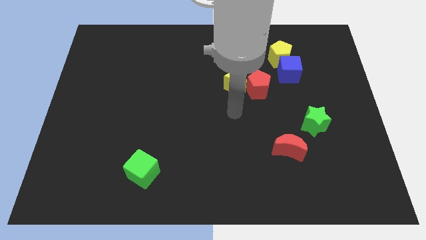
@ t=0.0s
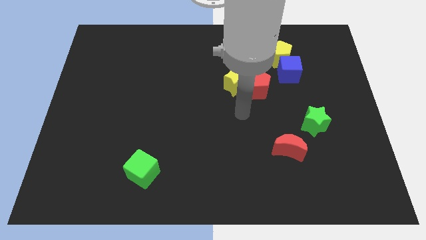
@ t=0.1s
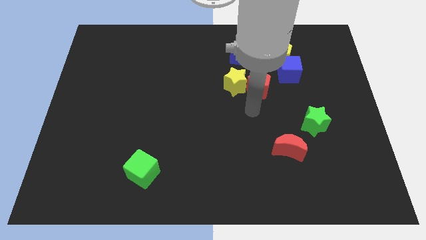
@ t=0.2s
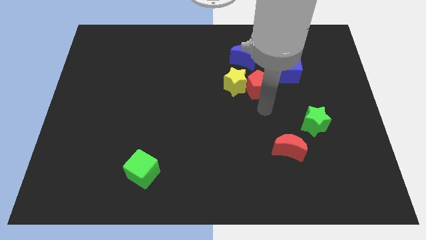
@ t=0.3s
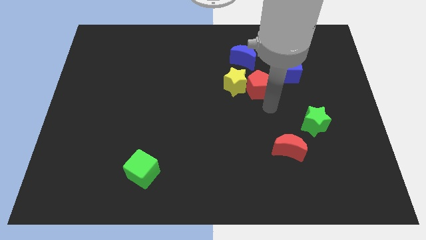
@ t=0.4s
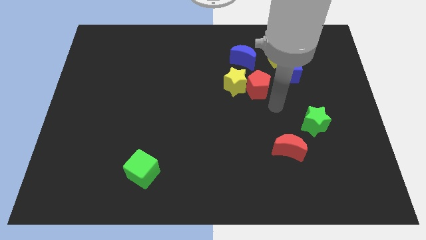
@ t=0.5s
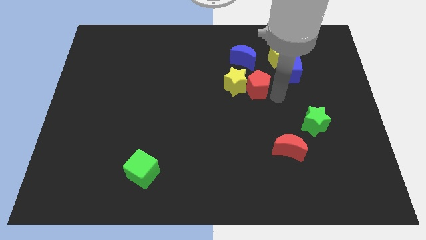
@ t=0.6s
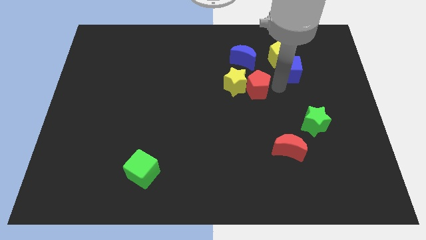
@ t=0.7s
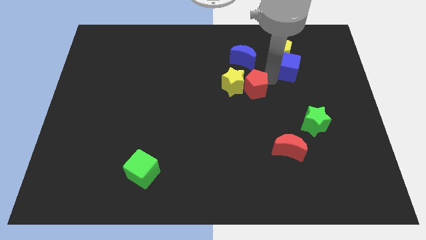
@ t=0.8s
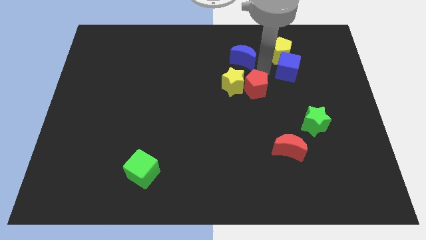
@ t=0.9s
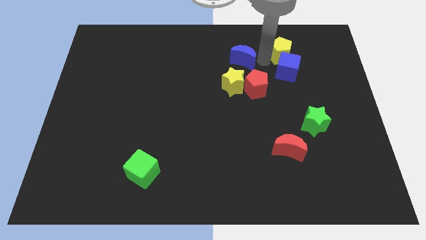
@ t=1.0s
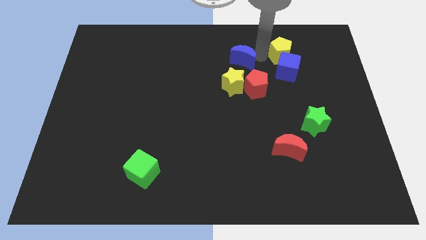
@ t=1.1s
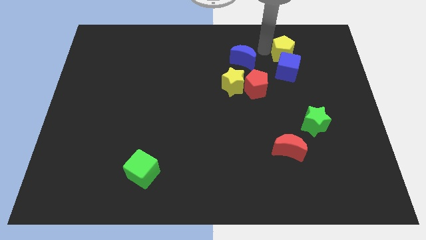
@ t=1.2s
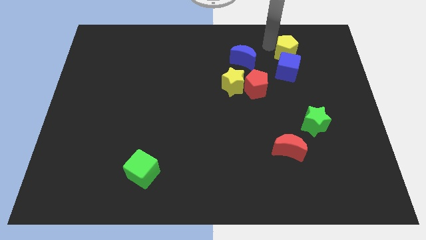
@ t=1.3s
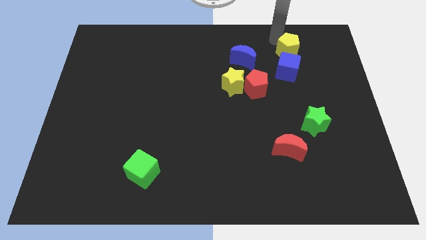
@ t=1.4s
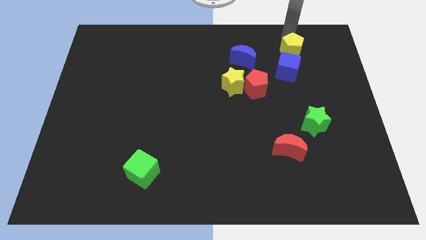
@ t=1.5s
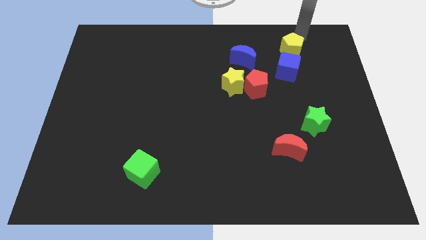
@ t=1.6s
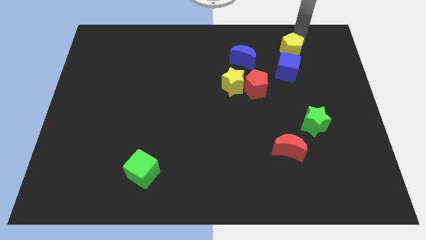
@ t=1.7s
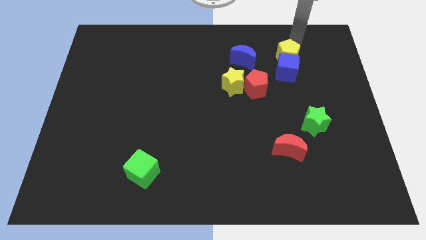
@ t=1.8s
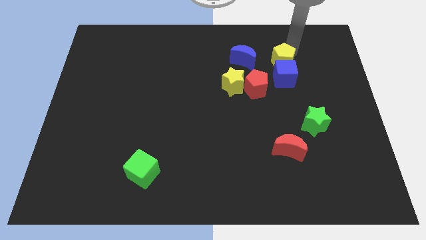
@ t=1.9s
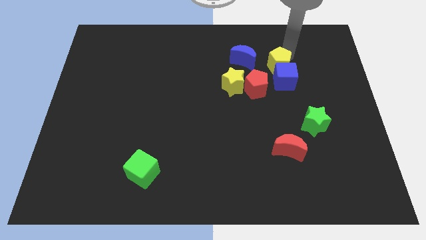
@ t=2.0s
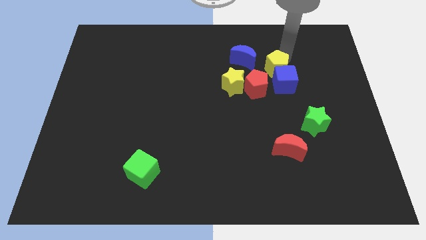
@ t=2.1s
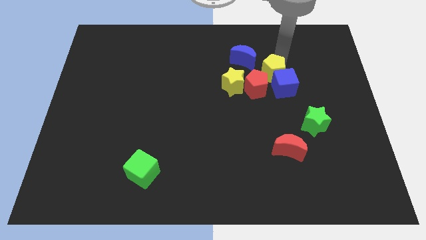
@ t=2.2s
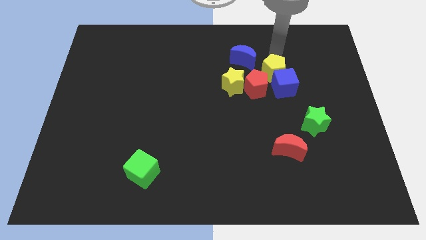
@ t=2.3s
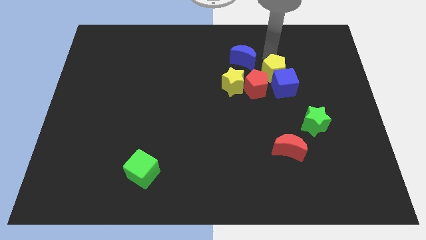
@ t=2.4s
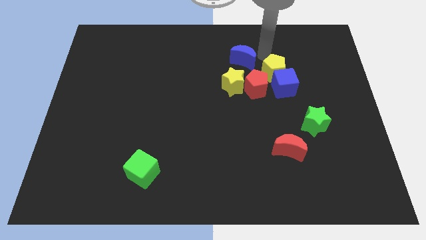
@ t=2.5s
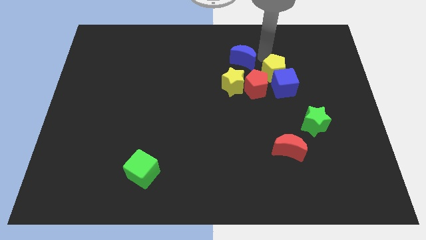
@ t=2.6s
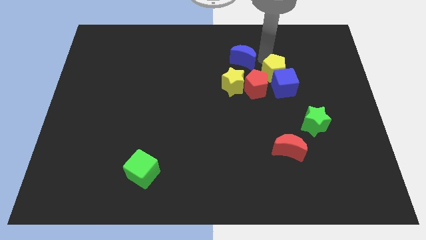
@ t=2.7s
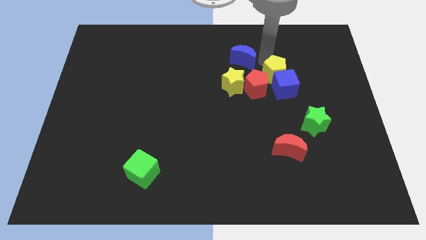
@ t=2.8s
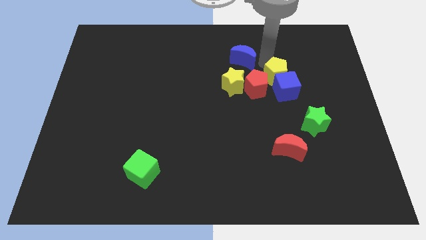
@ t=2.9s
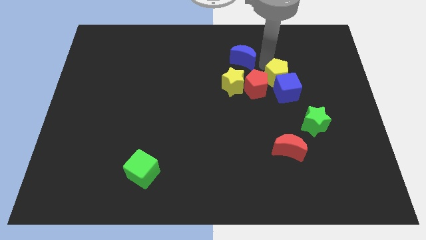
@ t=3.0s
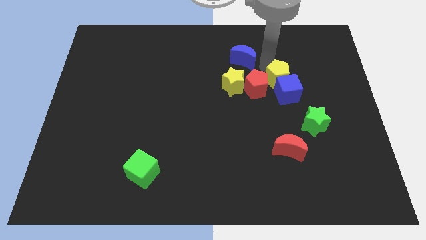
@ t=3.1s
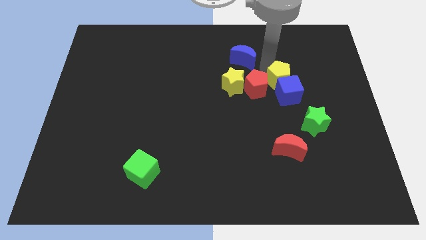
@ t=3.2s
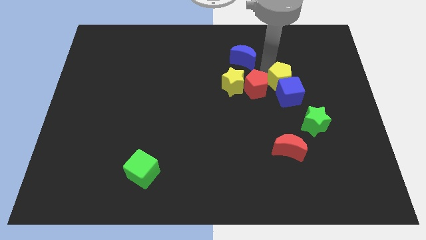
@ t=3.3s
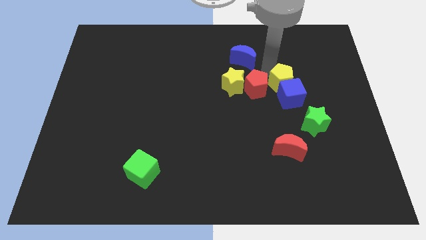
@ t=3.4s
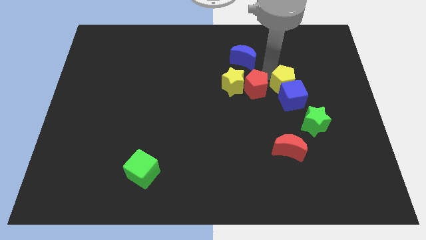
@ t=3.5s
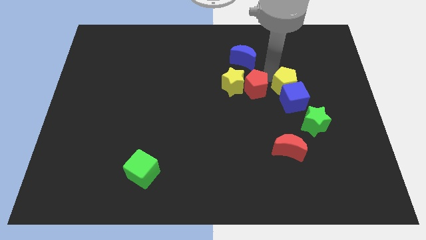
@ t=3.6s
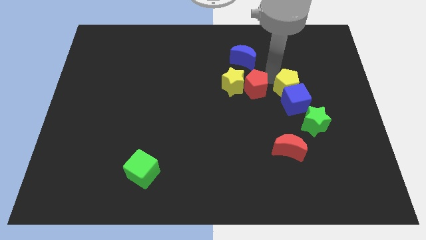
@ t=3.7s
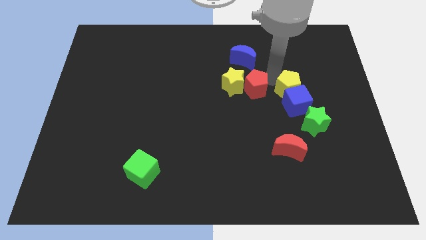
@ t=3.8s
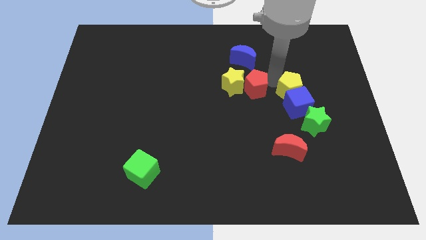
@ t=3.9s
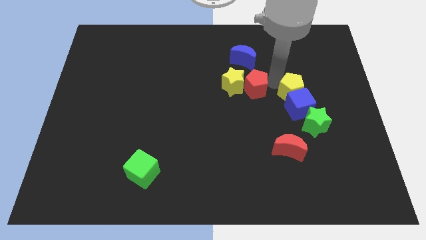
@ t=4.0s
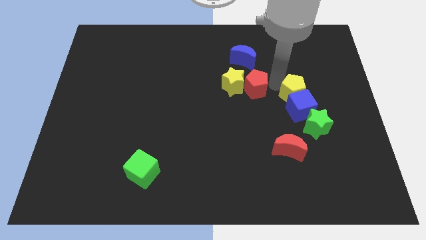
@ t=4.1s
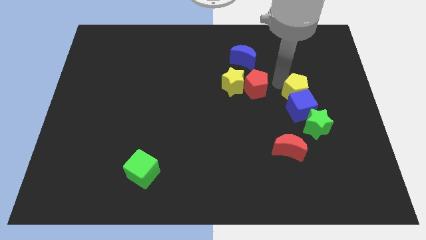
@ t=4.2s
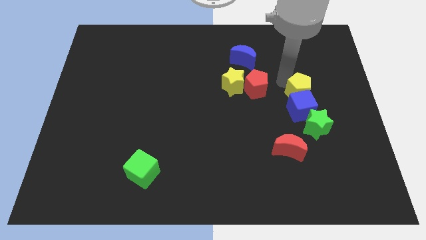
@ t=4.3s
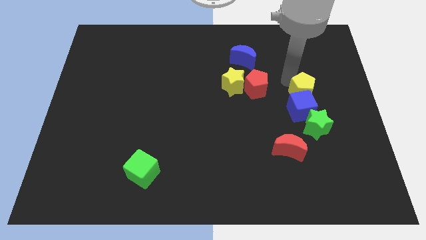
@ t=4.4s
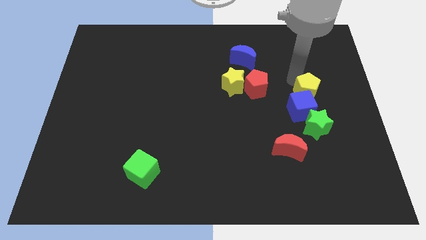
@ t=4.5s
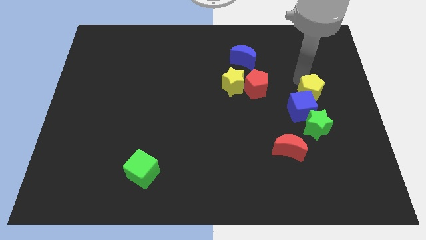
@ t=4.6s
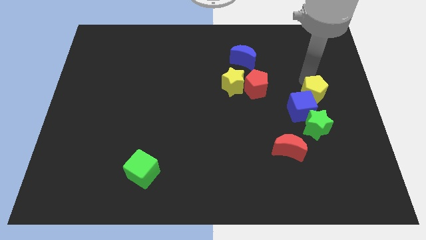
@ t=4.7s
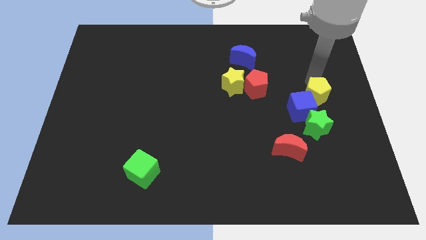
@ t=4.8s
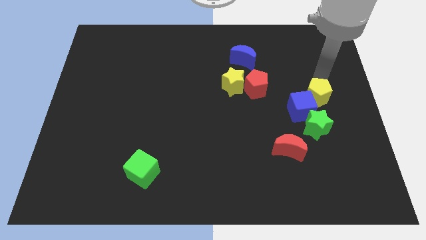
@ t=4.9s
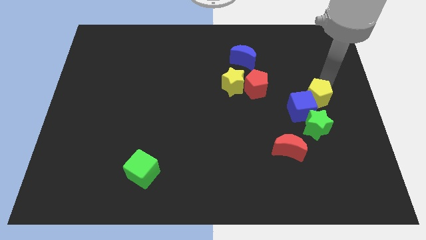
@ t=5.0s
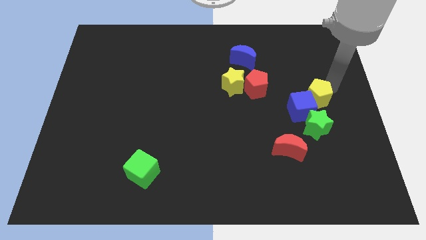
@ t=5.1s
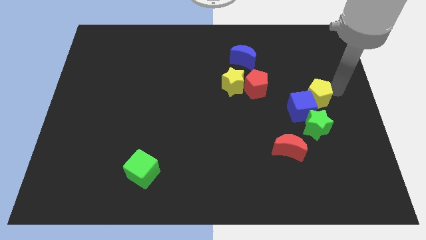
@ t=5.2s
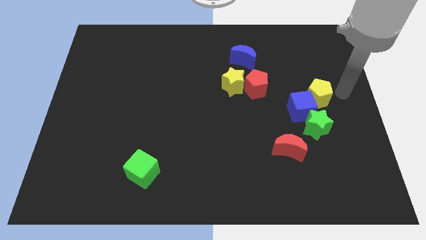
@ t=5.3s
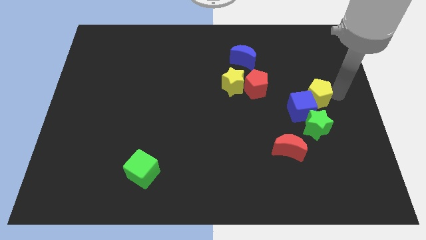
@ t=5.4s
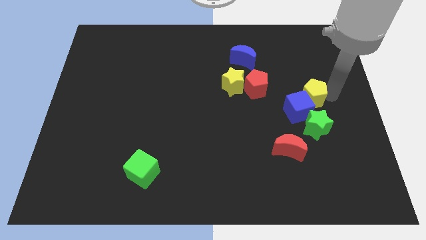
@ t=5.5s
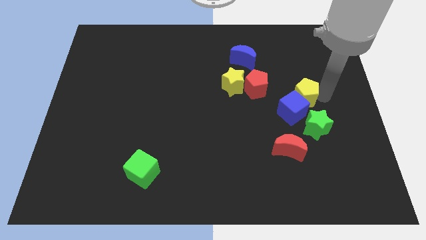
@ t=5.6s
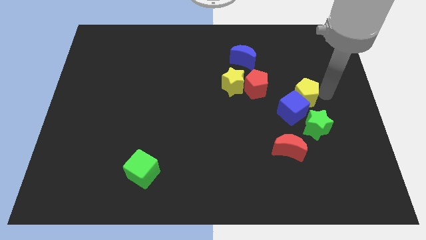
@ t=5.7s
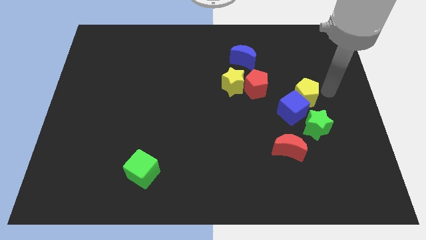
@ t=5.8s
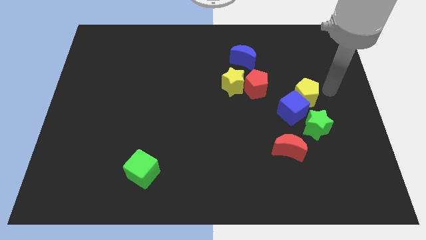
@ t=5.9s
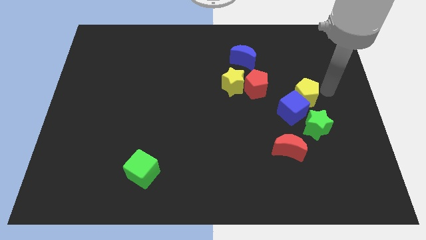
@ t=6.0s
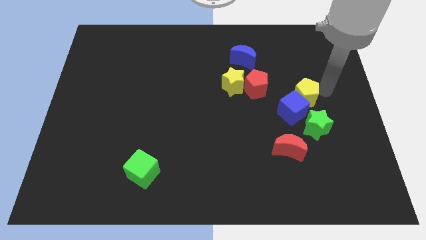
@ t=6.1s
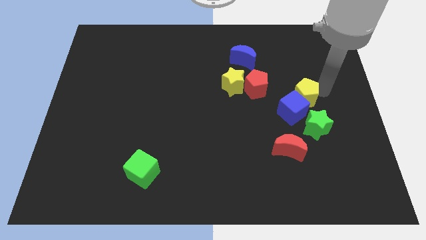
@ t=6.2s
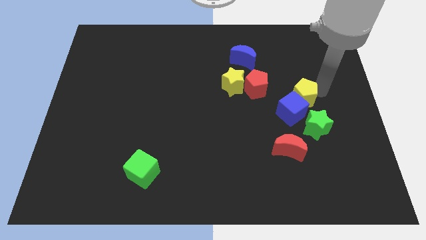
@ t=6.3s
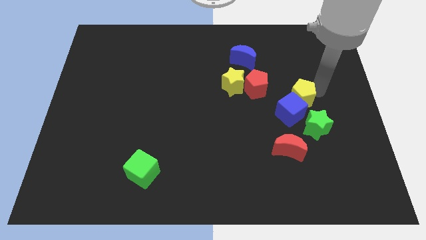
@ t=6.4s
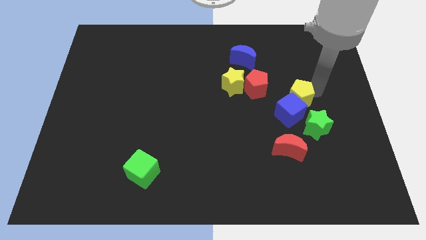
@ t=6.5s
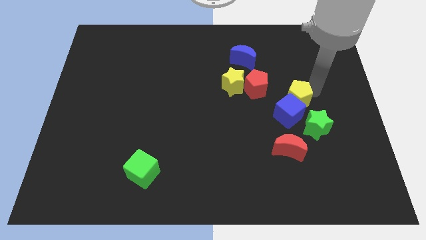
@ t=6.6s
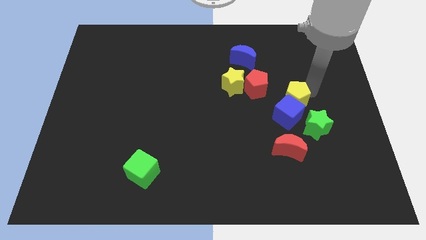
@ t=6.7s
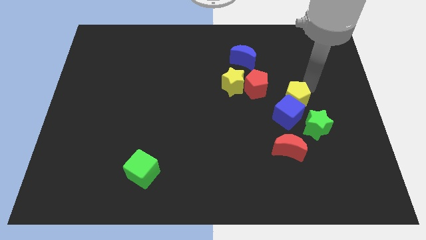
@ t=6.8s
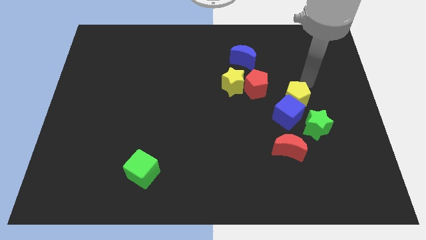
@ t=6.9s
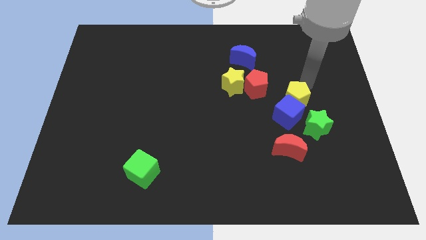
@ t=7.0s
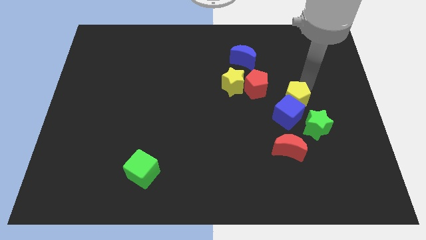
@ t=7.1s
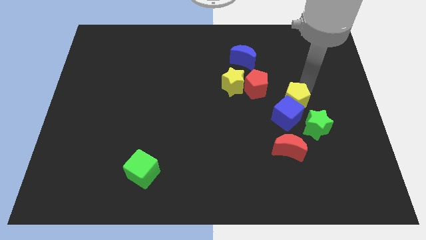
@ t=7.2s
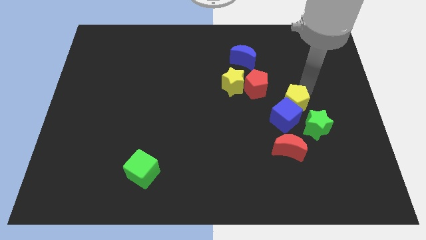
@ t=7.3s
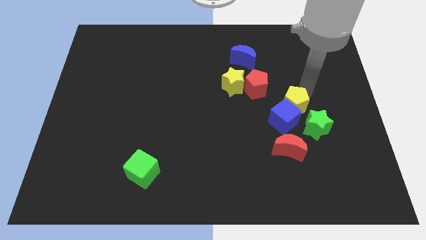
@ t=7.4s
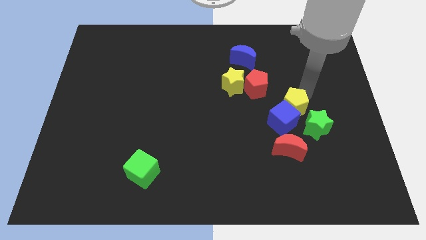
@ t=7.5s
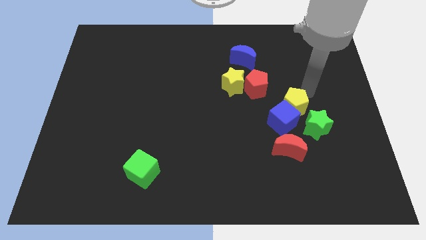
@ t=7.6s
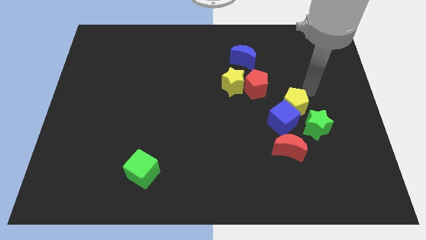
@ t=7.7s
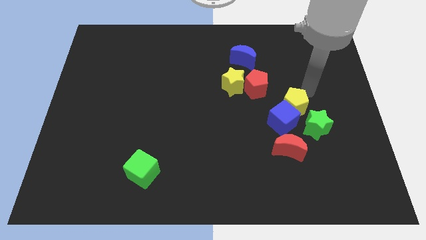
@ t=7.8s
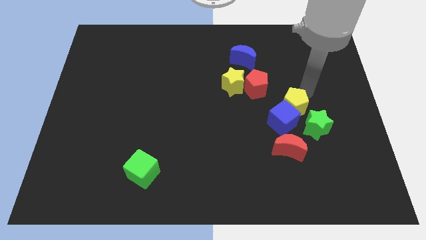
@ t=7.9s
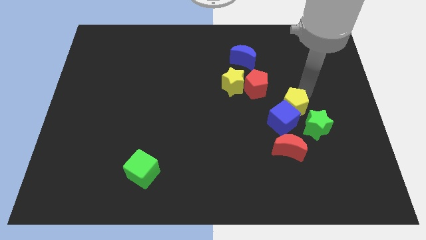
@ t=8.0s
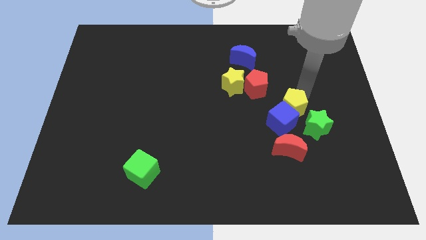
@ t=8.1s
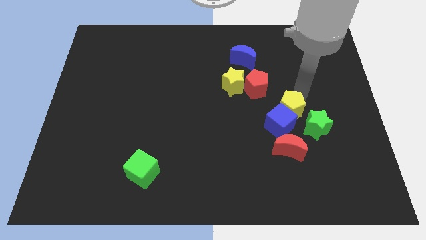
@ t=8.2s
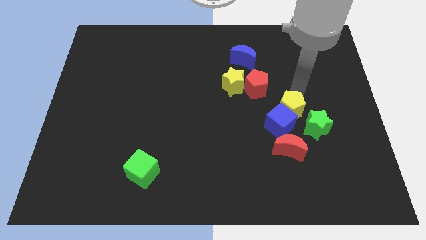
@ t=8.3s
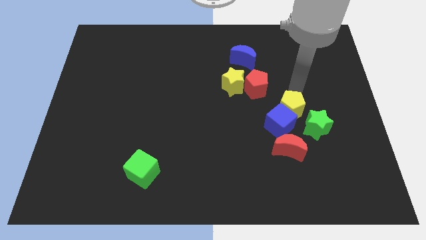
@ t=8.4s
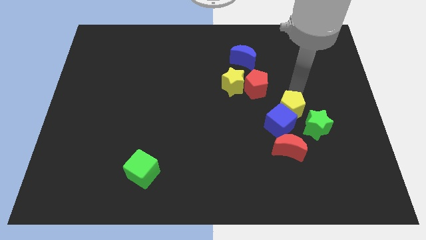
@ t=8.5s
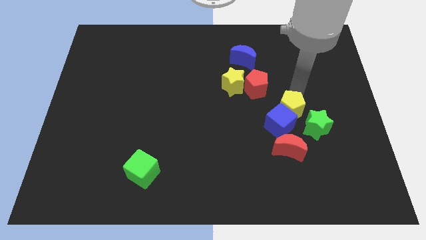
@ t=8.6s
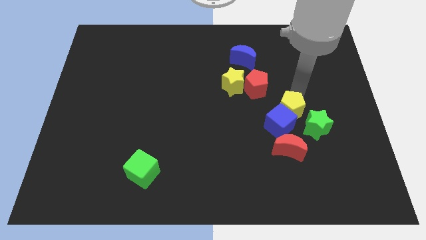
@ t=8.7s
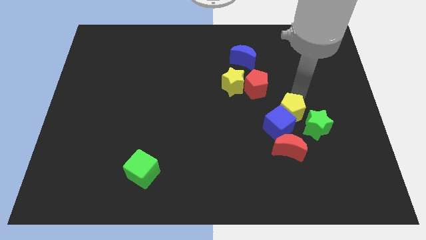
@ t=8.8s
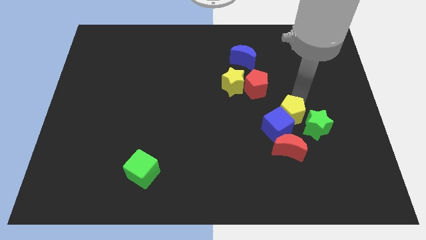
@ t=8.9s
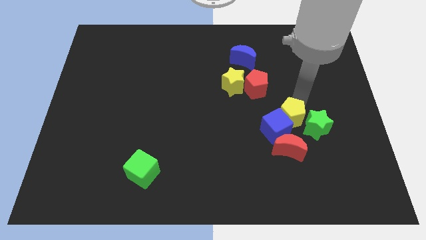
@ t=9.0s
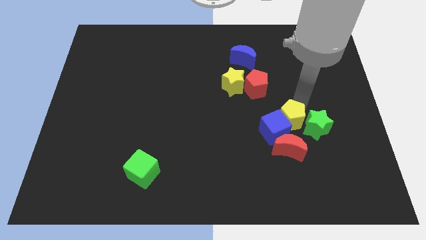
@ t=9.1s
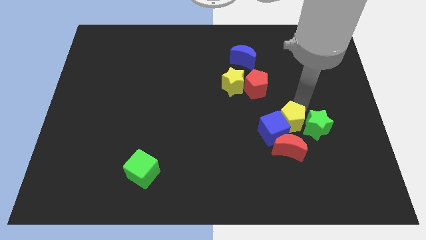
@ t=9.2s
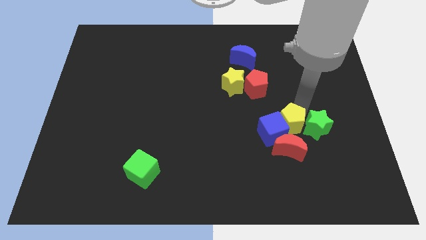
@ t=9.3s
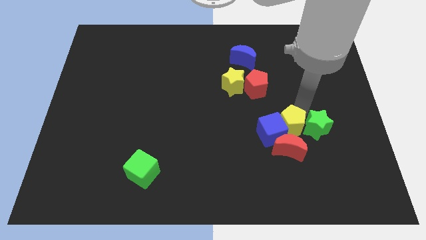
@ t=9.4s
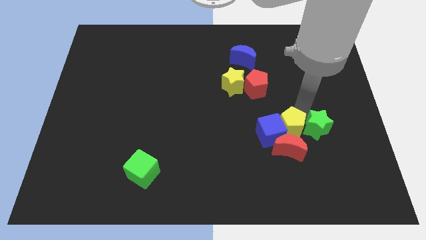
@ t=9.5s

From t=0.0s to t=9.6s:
push the yellow pentagon close to the red moon
